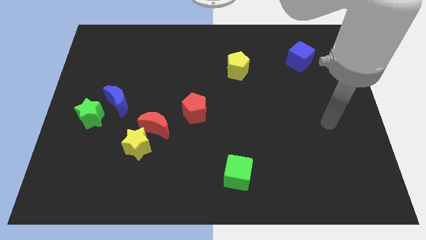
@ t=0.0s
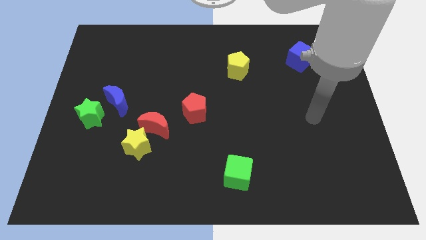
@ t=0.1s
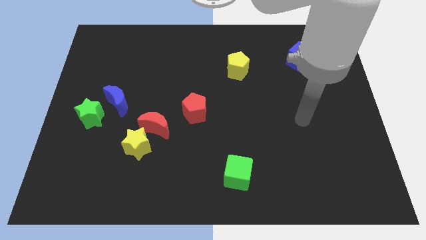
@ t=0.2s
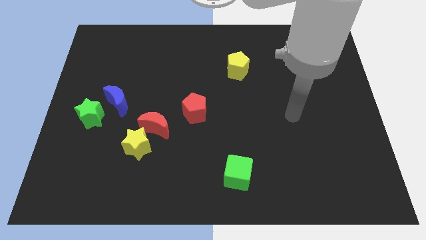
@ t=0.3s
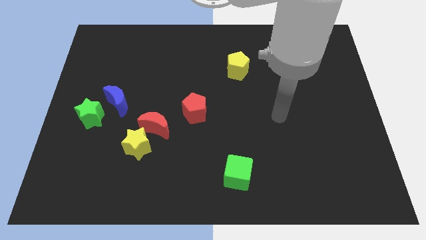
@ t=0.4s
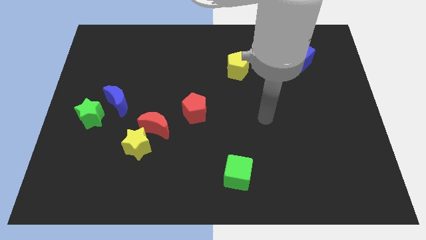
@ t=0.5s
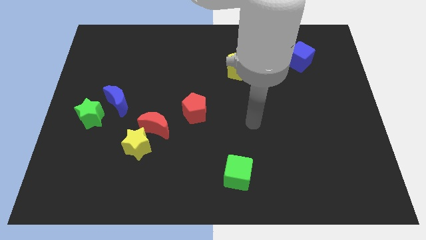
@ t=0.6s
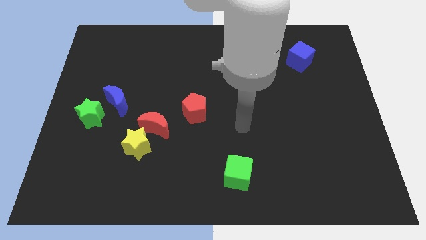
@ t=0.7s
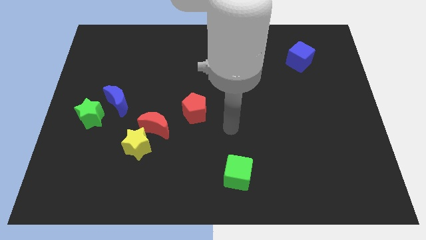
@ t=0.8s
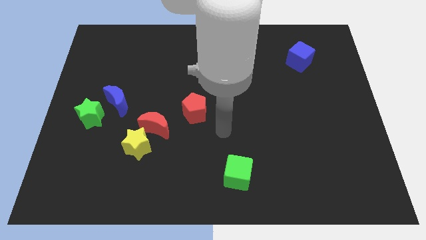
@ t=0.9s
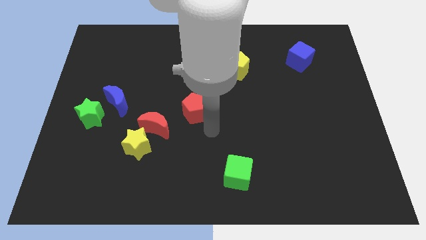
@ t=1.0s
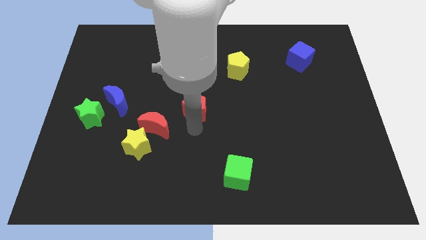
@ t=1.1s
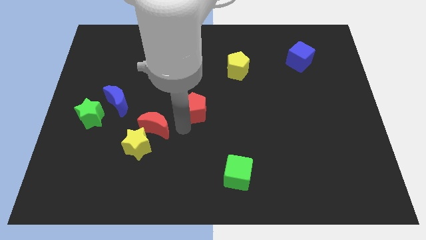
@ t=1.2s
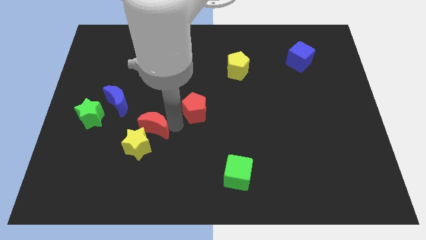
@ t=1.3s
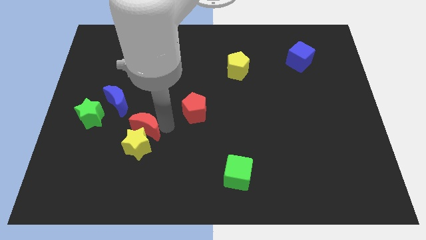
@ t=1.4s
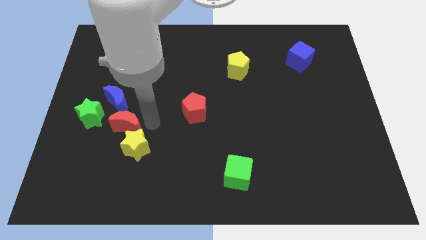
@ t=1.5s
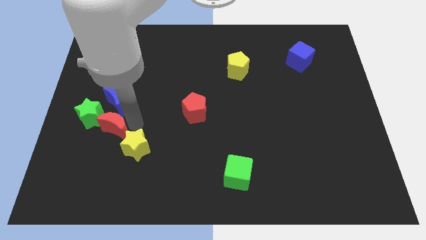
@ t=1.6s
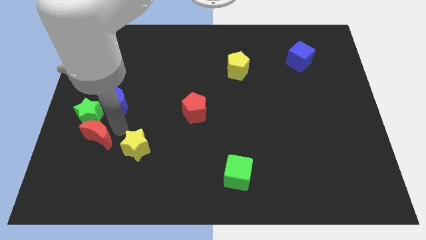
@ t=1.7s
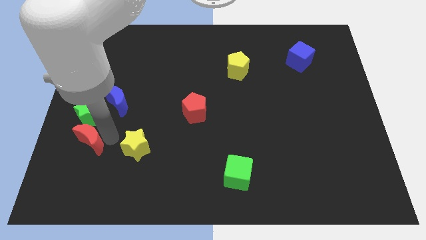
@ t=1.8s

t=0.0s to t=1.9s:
pull the yellow star apart from the red moon

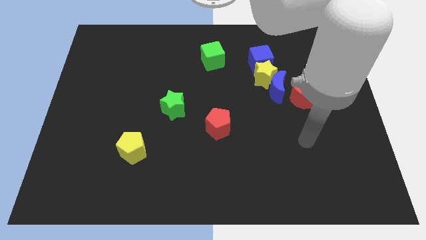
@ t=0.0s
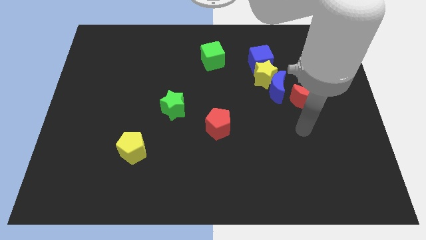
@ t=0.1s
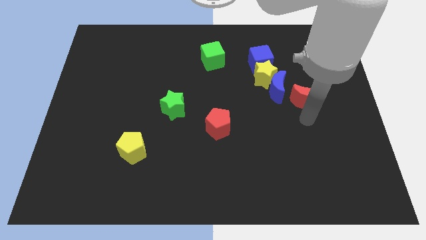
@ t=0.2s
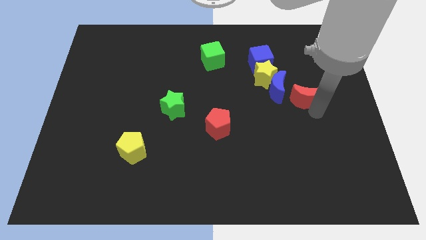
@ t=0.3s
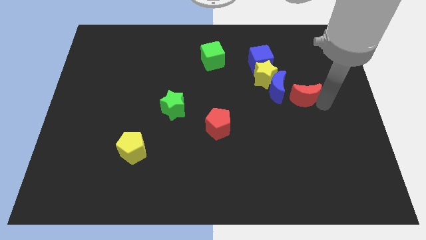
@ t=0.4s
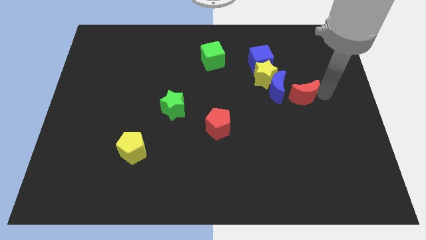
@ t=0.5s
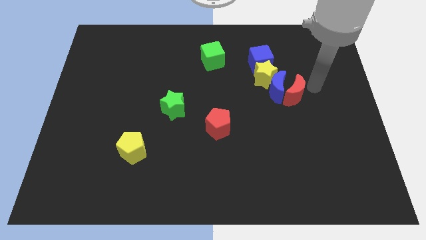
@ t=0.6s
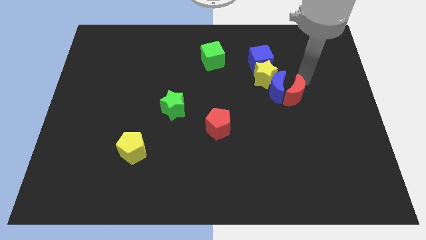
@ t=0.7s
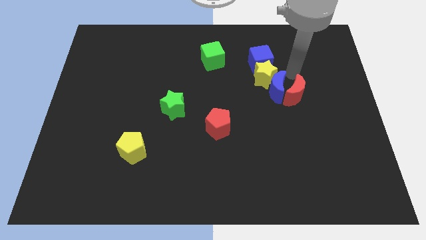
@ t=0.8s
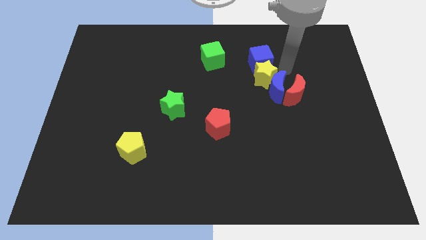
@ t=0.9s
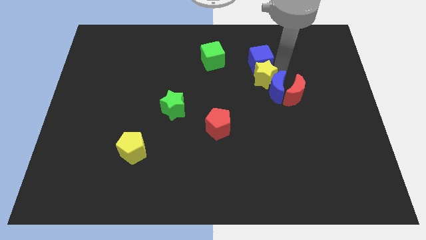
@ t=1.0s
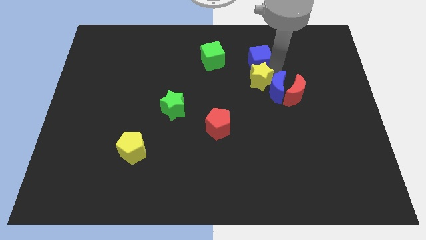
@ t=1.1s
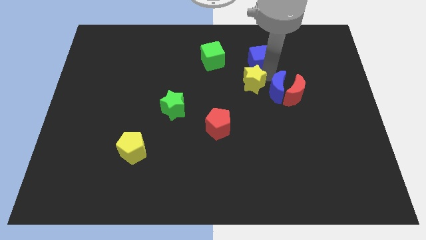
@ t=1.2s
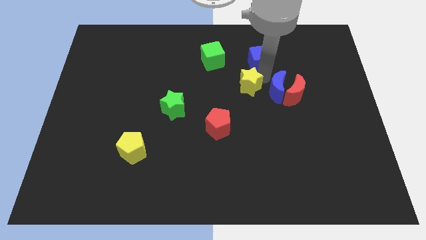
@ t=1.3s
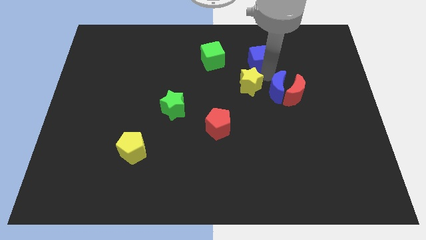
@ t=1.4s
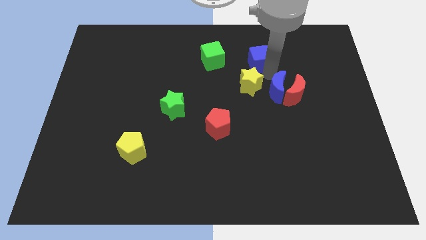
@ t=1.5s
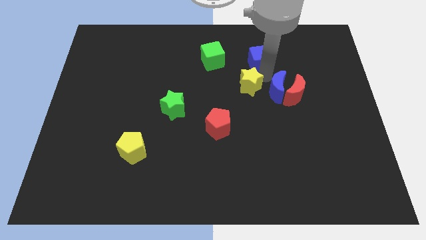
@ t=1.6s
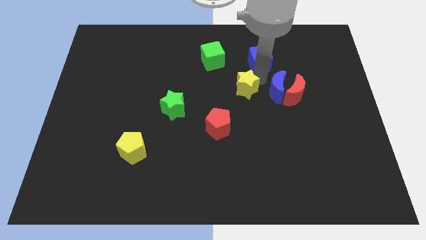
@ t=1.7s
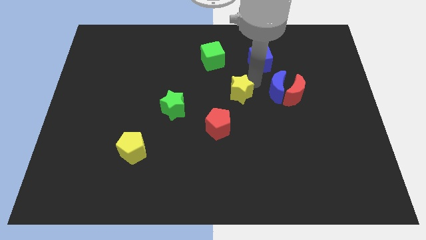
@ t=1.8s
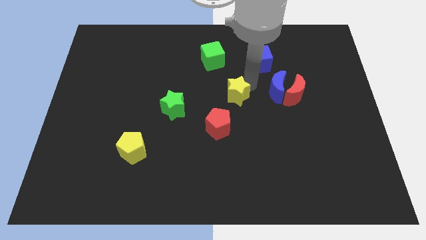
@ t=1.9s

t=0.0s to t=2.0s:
separate the yellow star from the blue moon and blue cube

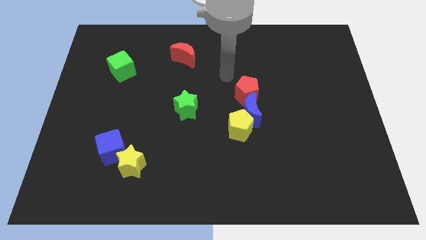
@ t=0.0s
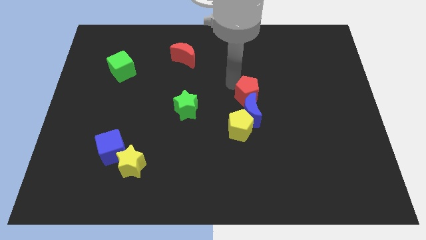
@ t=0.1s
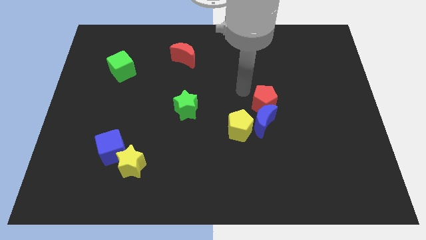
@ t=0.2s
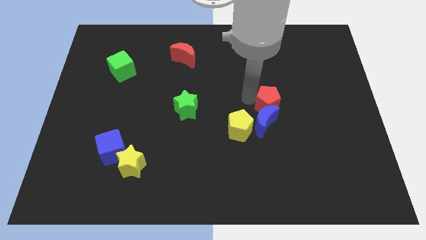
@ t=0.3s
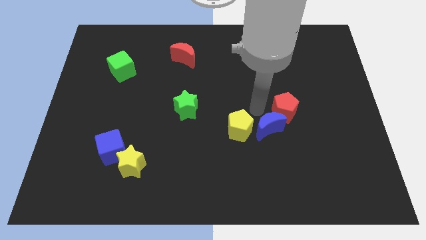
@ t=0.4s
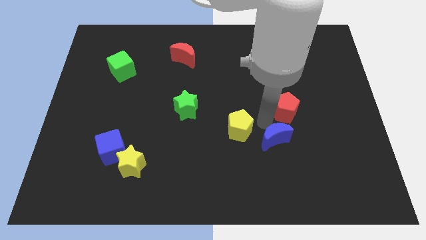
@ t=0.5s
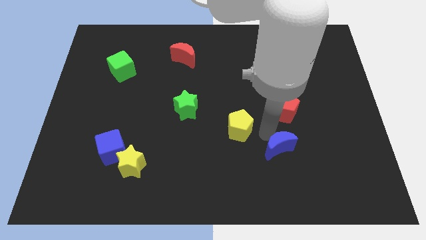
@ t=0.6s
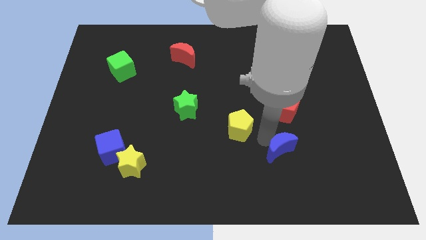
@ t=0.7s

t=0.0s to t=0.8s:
move the yellow pentagon away from the blue moon

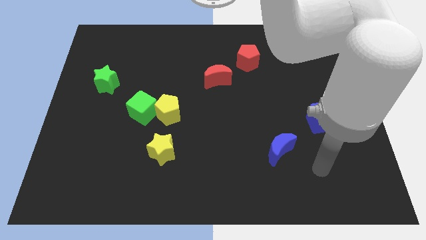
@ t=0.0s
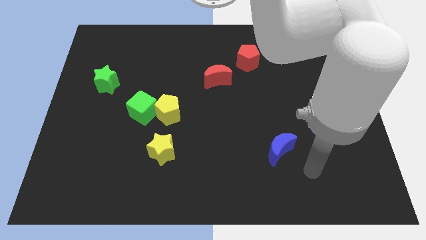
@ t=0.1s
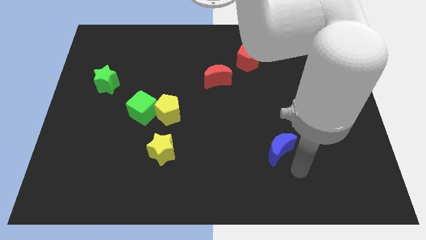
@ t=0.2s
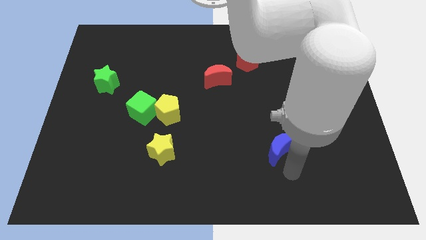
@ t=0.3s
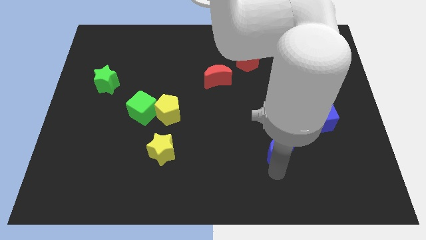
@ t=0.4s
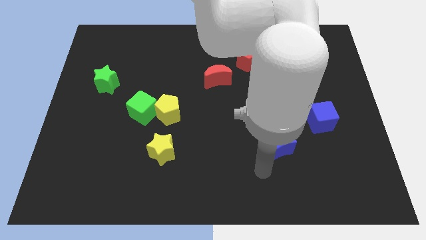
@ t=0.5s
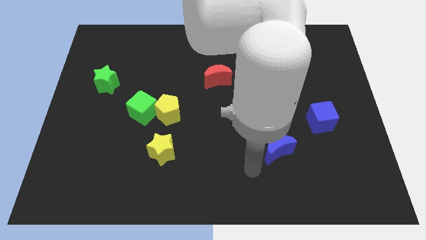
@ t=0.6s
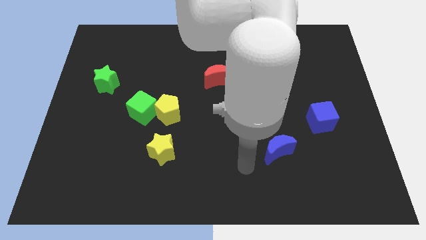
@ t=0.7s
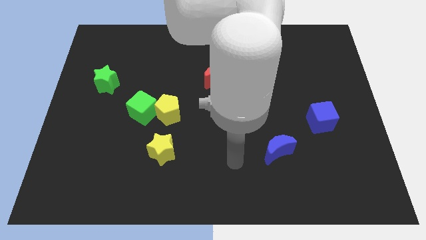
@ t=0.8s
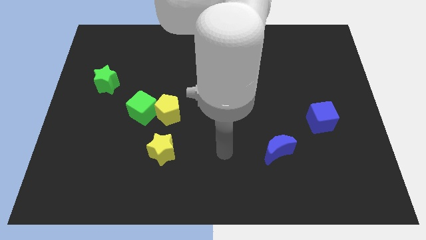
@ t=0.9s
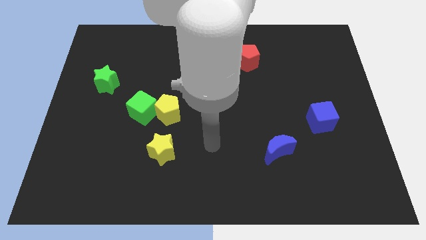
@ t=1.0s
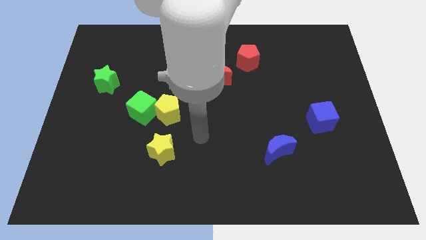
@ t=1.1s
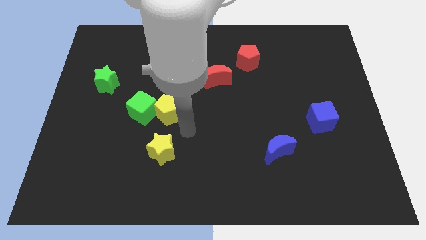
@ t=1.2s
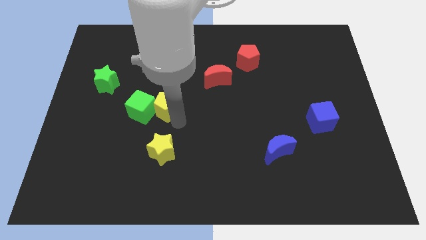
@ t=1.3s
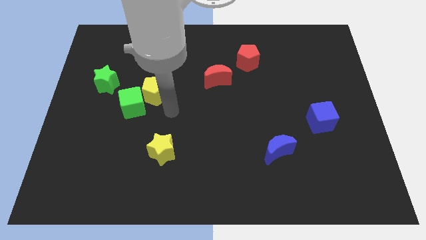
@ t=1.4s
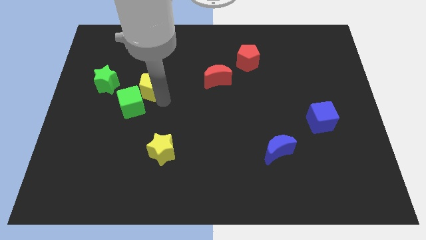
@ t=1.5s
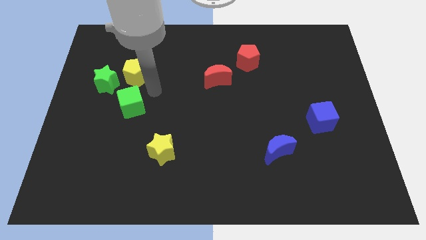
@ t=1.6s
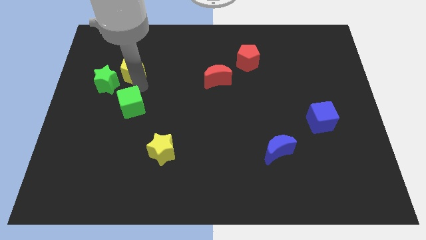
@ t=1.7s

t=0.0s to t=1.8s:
pull the green cube apart from the yellow pentagon

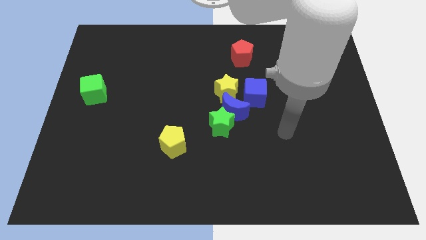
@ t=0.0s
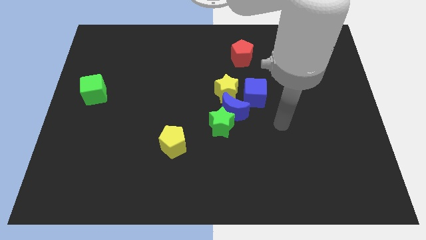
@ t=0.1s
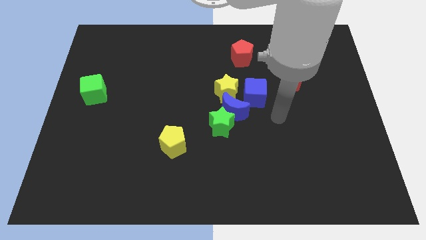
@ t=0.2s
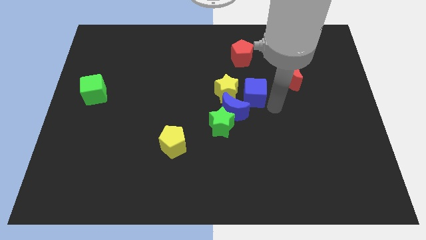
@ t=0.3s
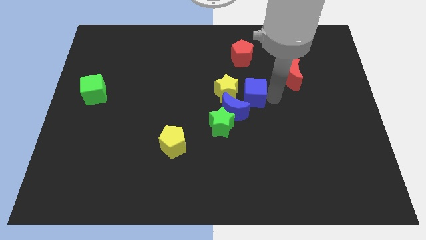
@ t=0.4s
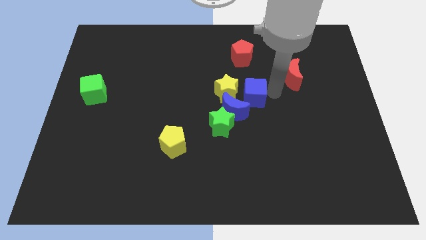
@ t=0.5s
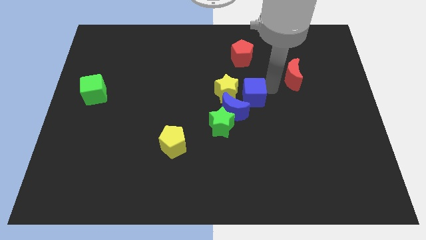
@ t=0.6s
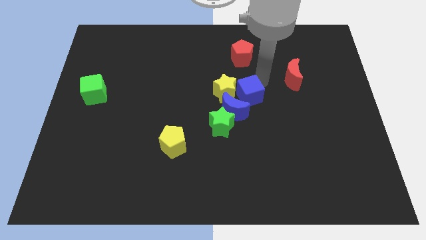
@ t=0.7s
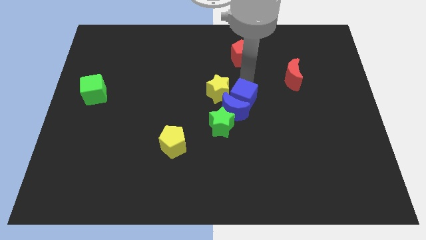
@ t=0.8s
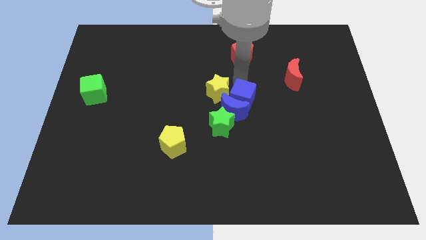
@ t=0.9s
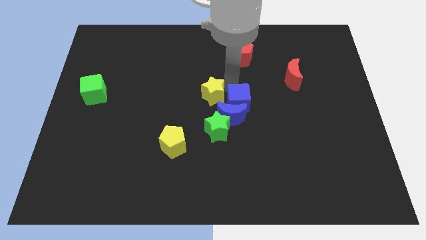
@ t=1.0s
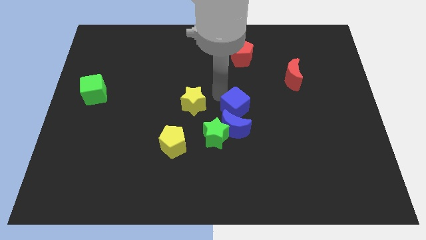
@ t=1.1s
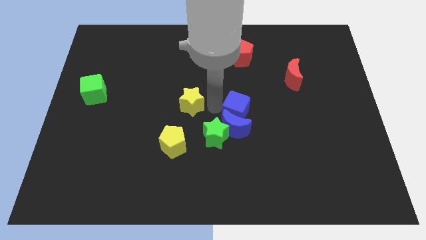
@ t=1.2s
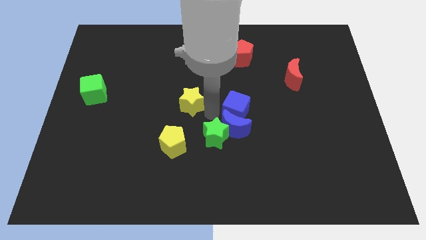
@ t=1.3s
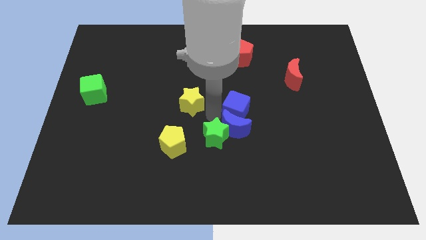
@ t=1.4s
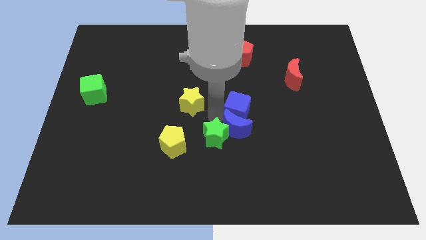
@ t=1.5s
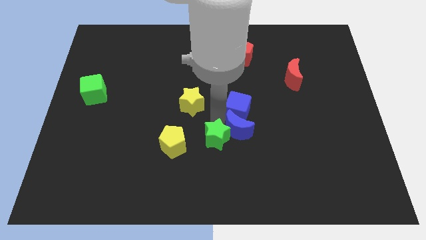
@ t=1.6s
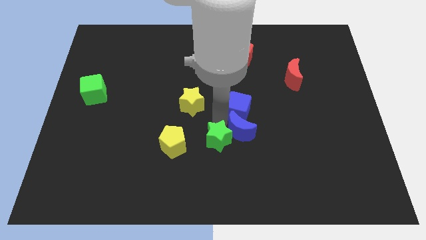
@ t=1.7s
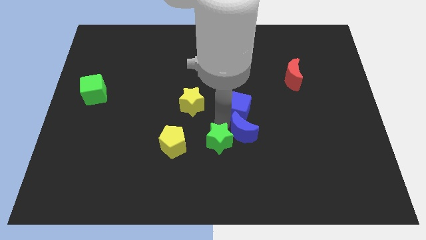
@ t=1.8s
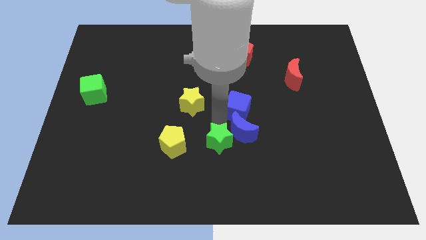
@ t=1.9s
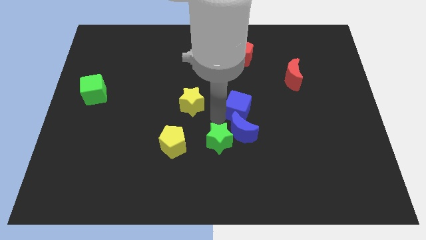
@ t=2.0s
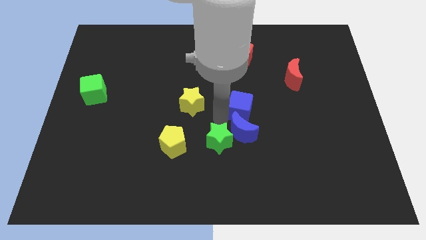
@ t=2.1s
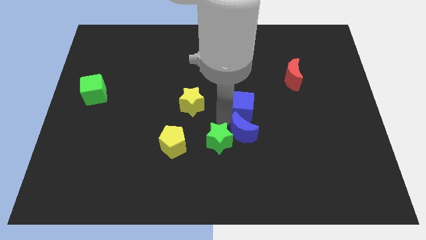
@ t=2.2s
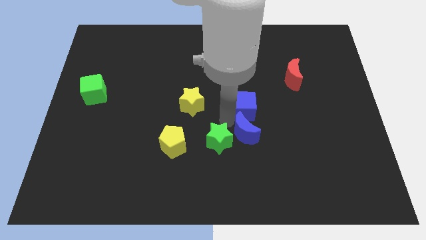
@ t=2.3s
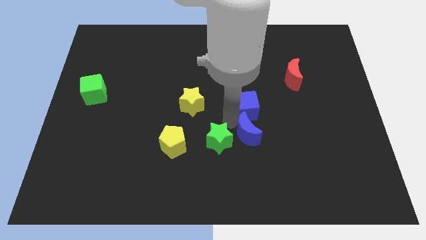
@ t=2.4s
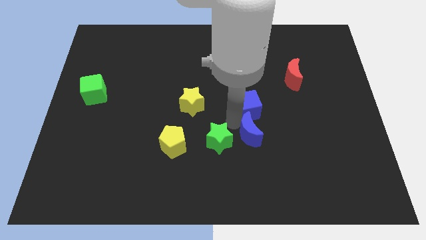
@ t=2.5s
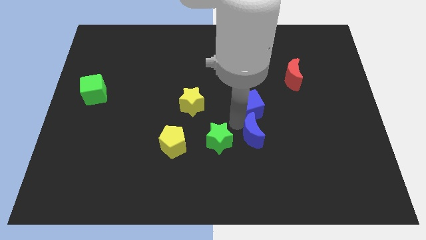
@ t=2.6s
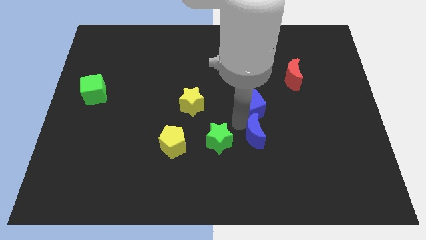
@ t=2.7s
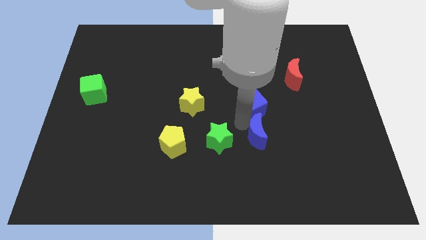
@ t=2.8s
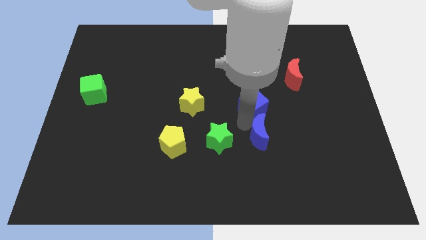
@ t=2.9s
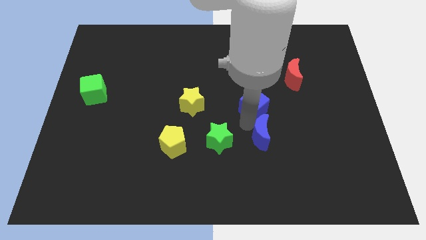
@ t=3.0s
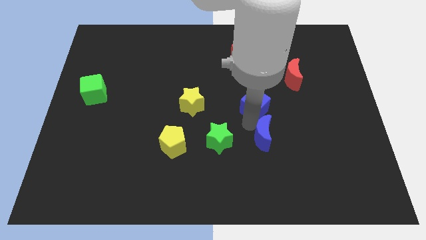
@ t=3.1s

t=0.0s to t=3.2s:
move the blue moon away from the green star, yellow star, and blue cube
